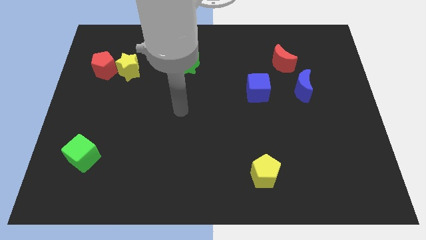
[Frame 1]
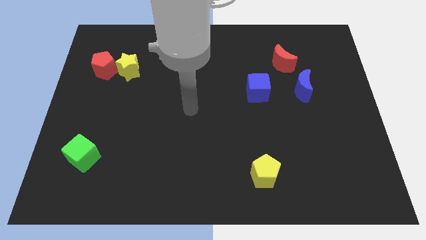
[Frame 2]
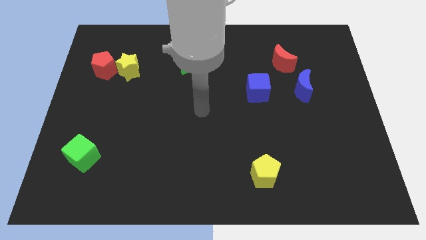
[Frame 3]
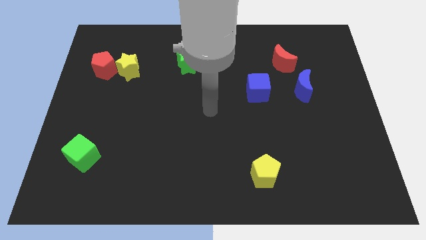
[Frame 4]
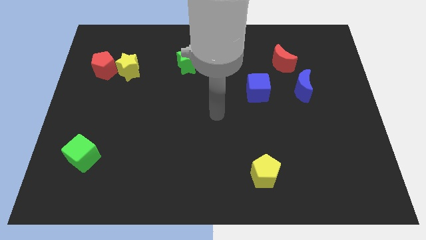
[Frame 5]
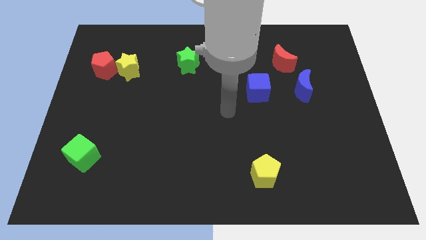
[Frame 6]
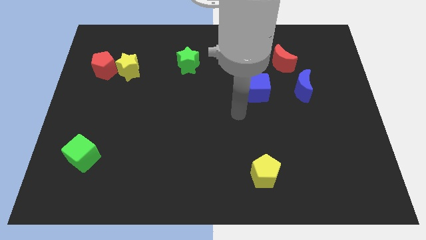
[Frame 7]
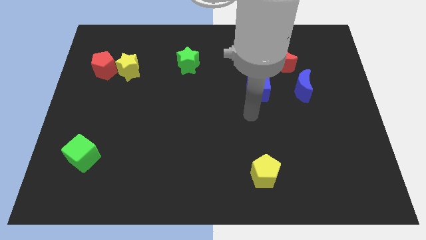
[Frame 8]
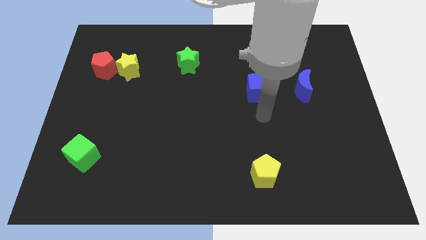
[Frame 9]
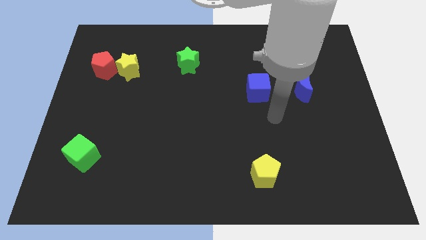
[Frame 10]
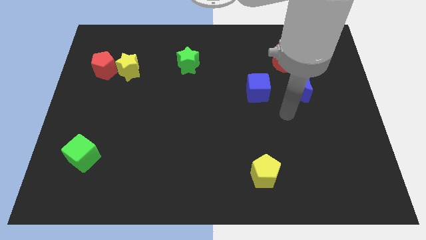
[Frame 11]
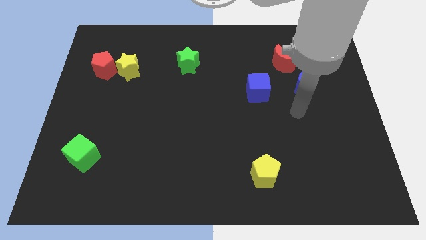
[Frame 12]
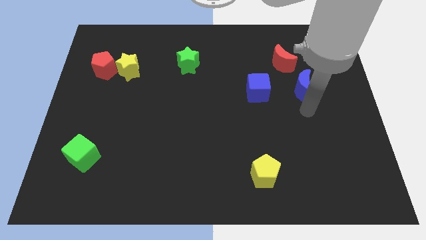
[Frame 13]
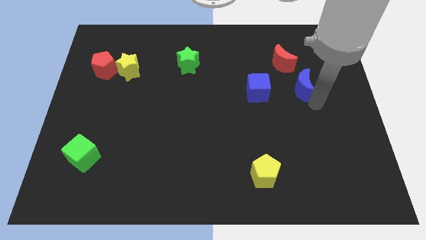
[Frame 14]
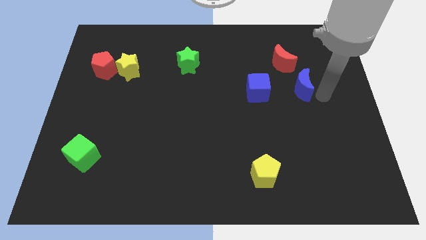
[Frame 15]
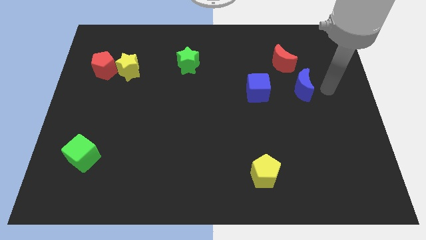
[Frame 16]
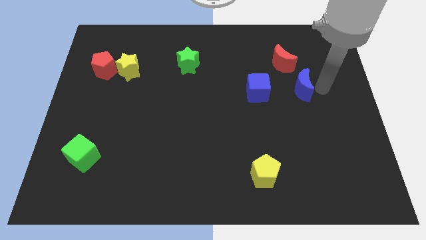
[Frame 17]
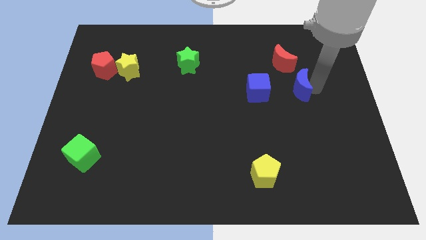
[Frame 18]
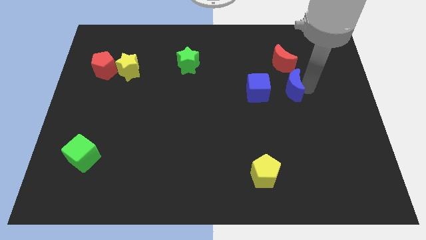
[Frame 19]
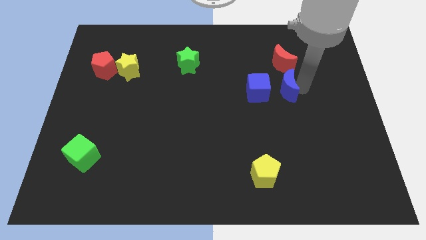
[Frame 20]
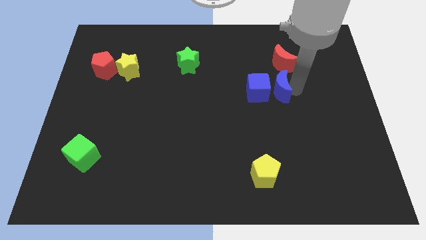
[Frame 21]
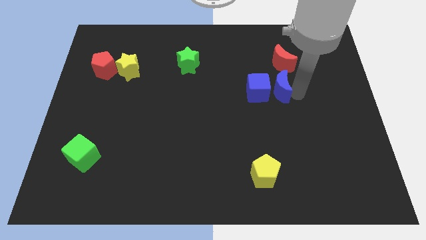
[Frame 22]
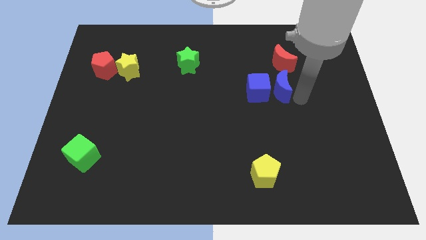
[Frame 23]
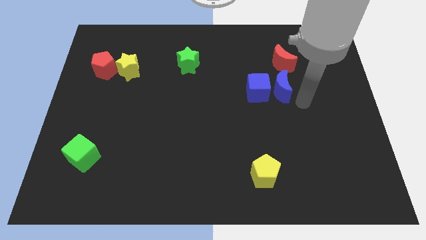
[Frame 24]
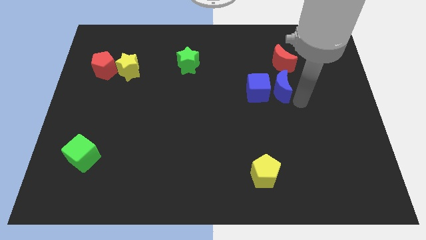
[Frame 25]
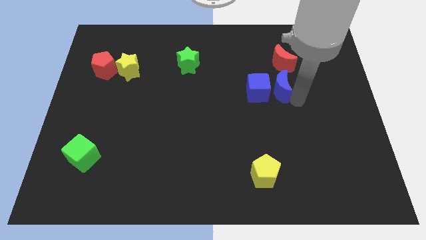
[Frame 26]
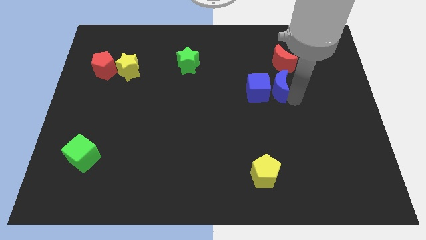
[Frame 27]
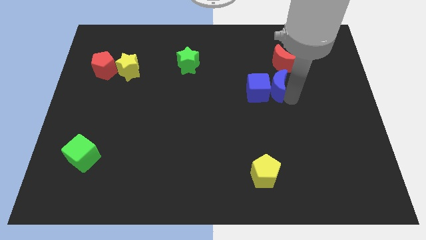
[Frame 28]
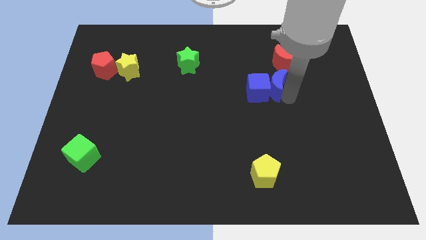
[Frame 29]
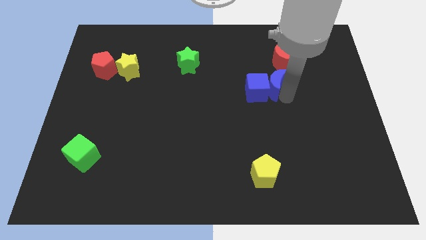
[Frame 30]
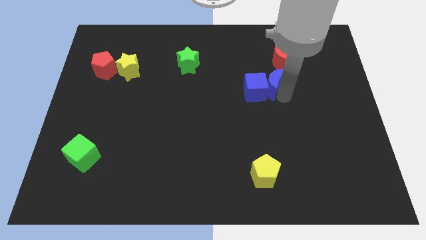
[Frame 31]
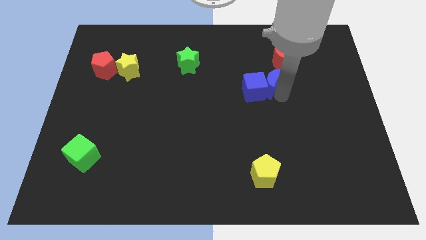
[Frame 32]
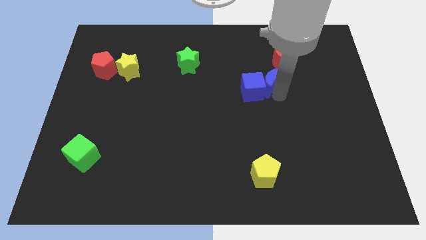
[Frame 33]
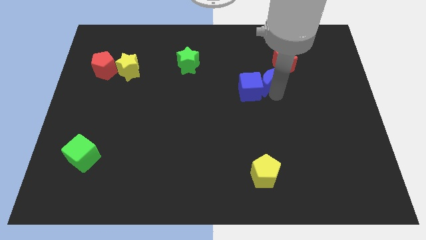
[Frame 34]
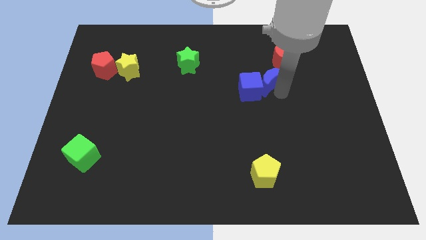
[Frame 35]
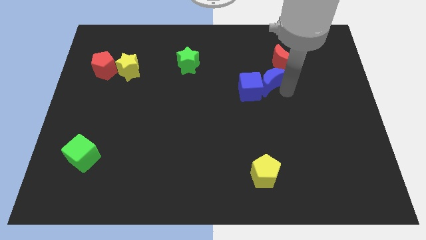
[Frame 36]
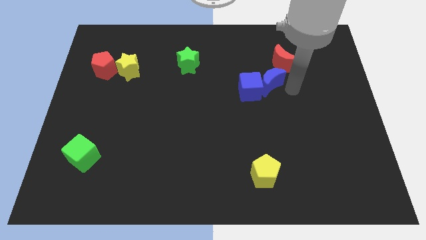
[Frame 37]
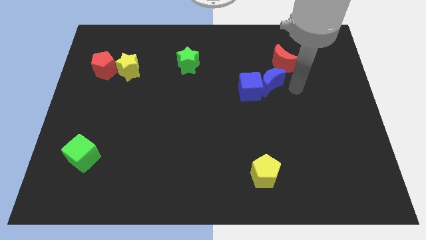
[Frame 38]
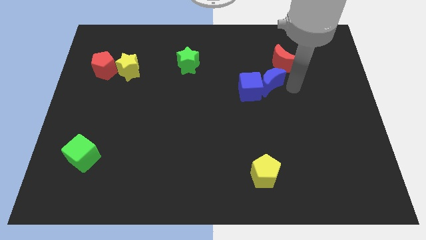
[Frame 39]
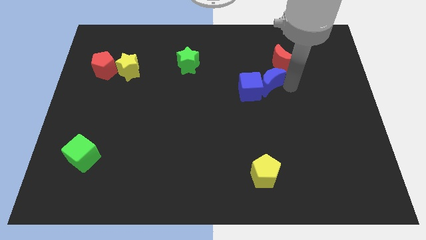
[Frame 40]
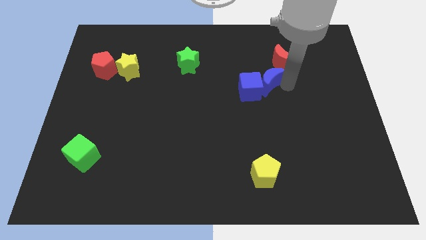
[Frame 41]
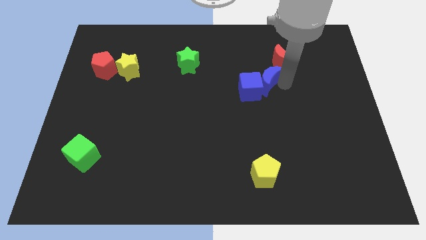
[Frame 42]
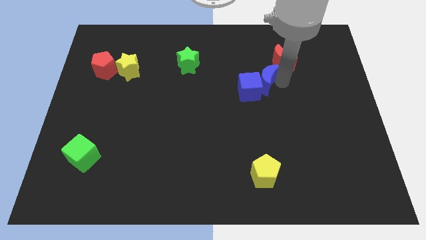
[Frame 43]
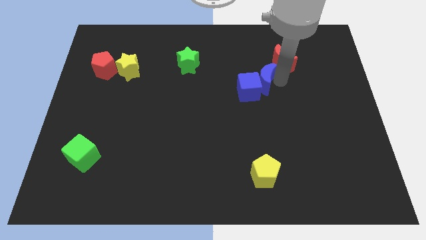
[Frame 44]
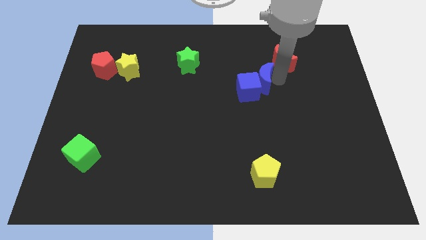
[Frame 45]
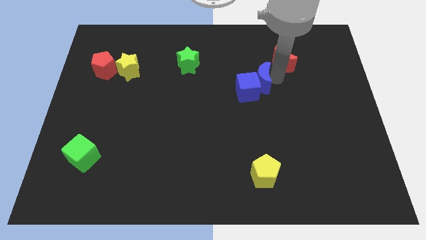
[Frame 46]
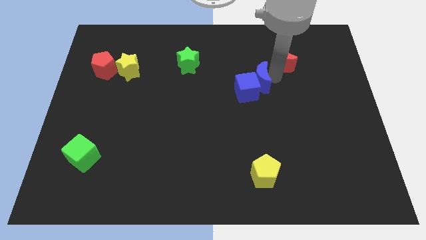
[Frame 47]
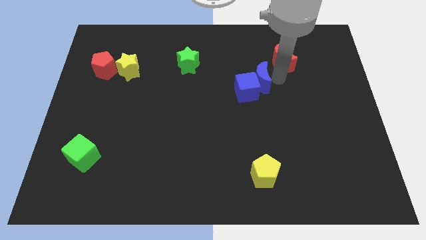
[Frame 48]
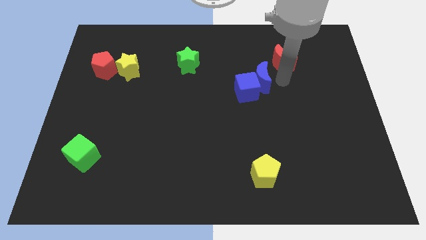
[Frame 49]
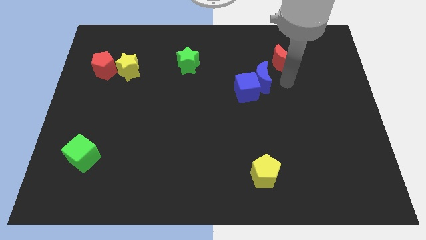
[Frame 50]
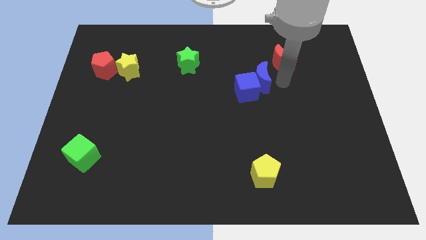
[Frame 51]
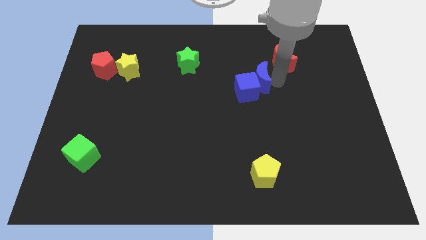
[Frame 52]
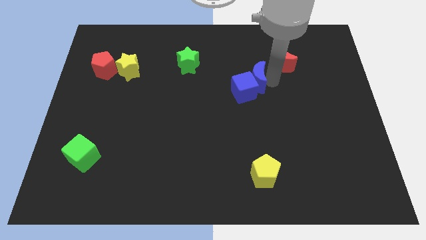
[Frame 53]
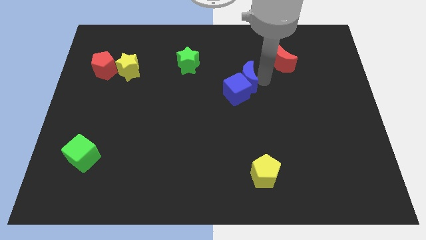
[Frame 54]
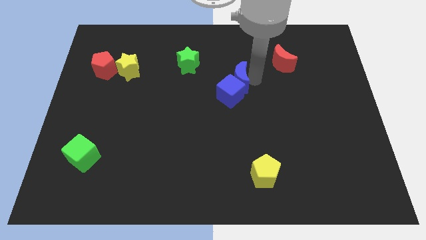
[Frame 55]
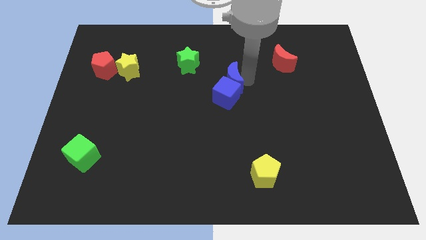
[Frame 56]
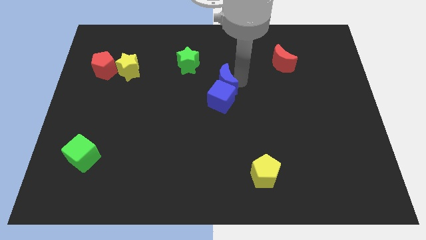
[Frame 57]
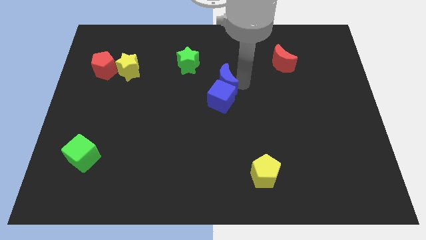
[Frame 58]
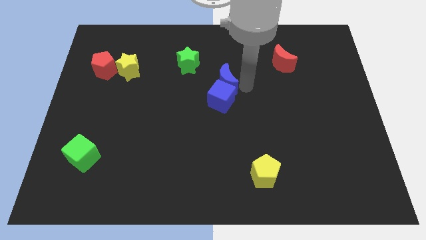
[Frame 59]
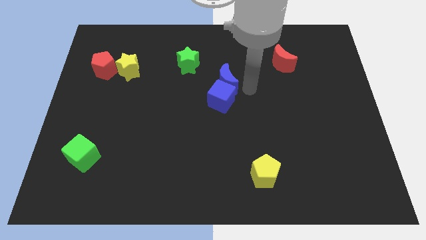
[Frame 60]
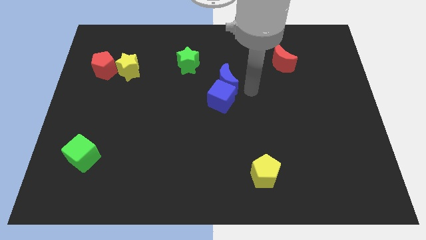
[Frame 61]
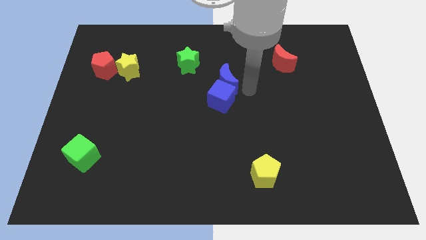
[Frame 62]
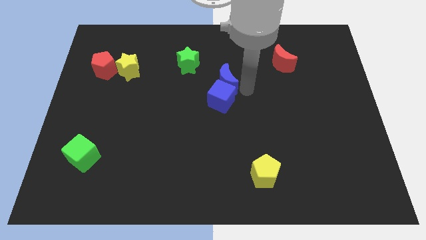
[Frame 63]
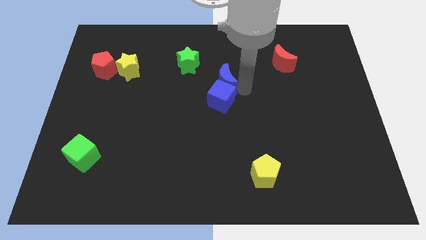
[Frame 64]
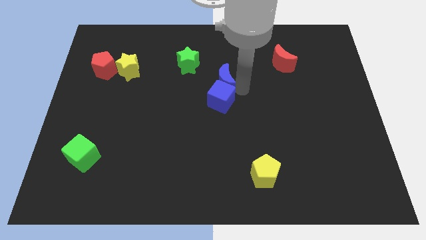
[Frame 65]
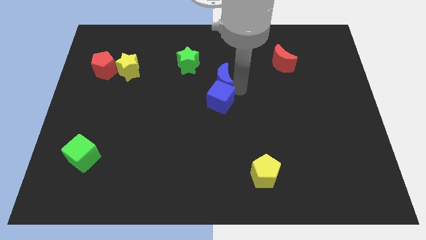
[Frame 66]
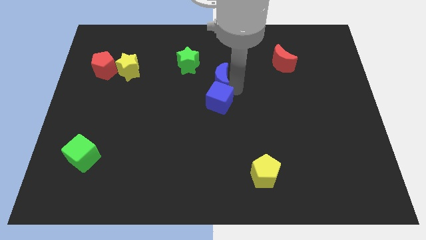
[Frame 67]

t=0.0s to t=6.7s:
move the blue moon to the left

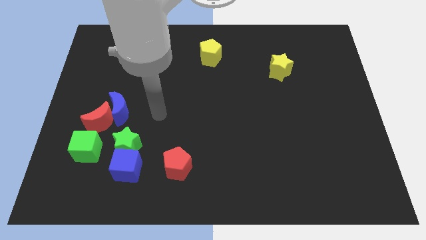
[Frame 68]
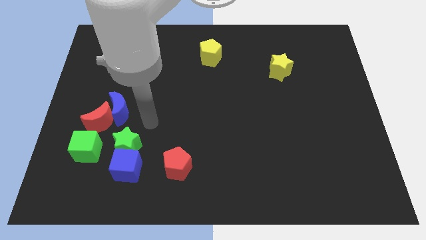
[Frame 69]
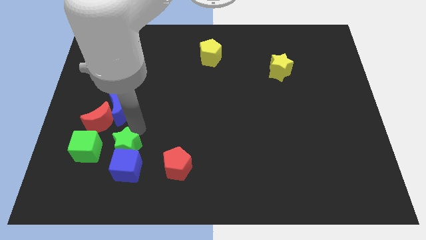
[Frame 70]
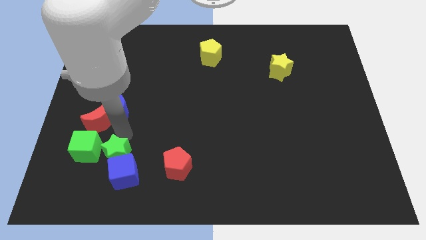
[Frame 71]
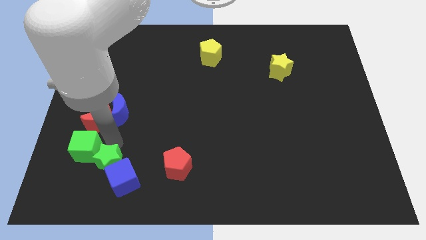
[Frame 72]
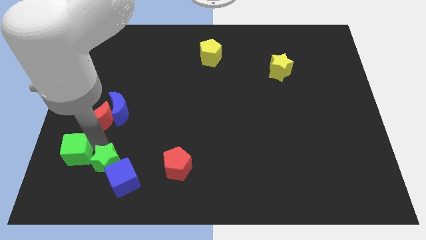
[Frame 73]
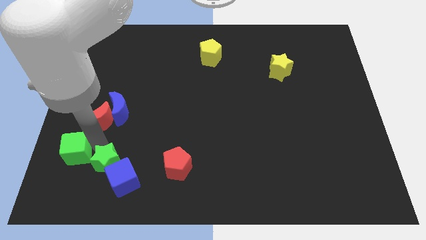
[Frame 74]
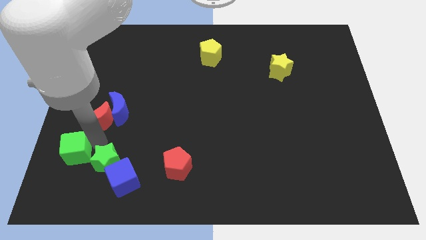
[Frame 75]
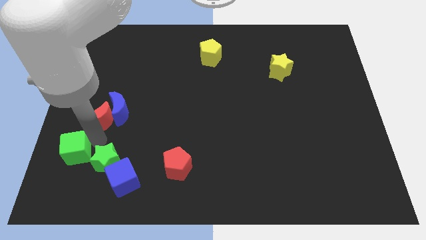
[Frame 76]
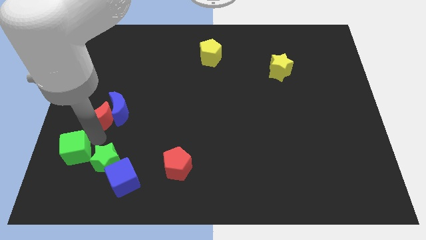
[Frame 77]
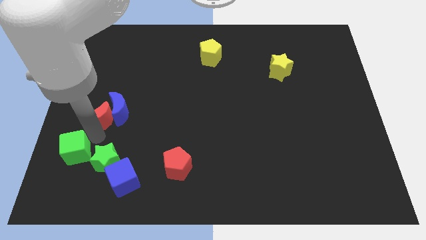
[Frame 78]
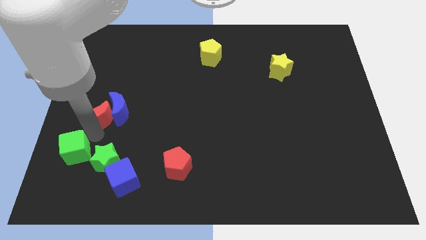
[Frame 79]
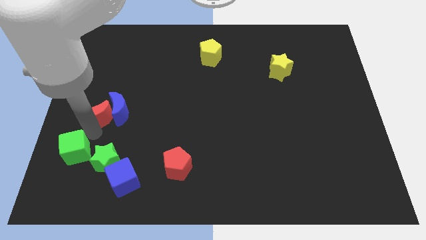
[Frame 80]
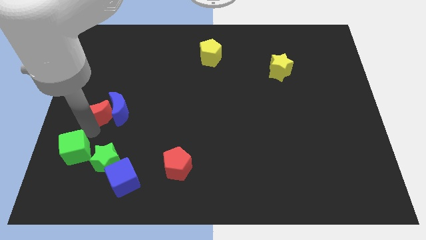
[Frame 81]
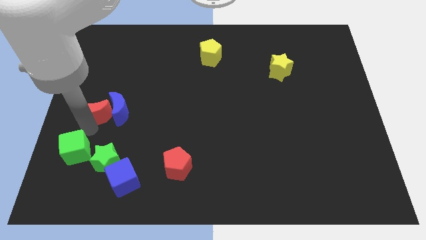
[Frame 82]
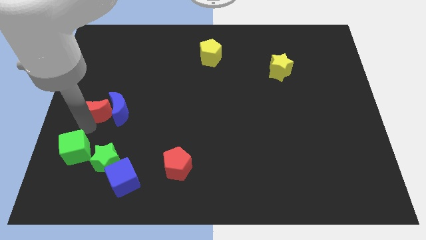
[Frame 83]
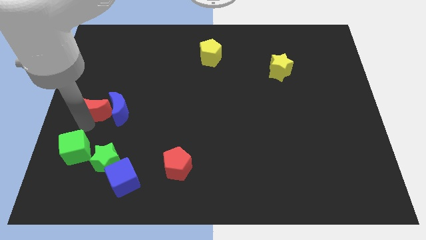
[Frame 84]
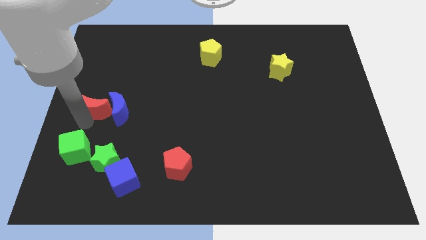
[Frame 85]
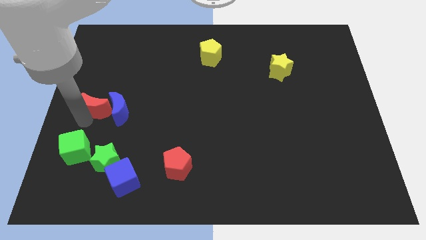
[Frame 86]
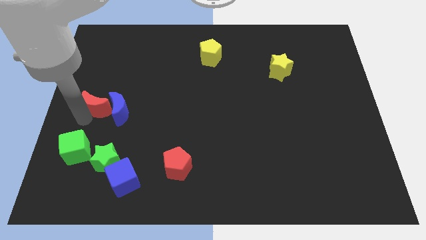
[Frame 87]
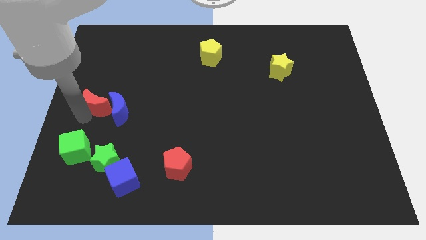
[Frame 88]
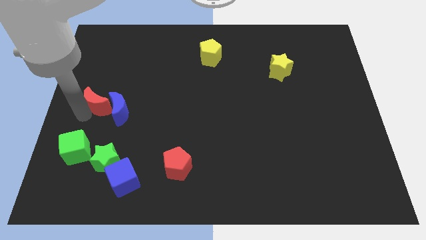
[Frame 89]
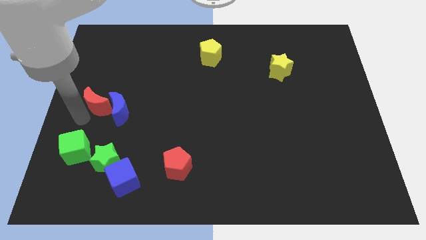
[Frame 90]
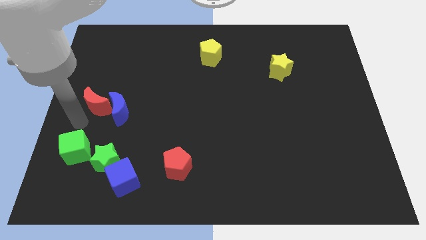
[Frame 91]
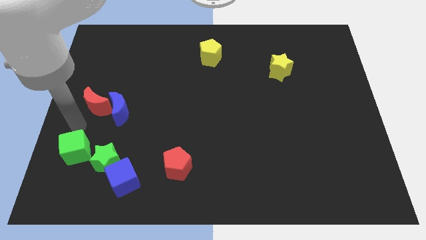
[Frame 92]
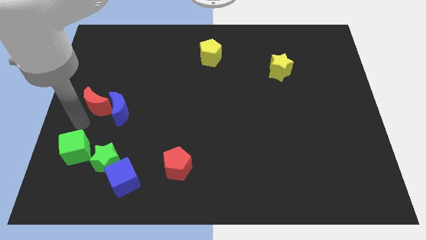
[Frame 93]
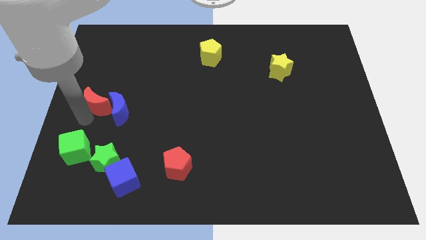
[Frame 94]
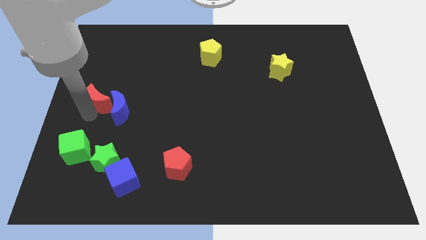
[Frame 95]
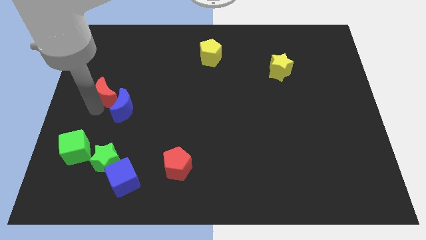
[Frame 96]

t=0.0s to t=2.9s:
push the red moon slightly upwards
